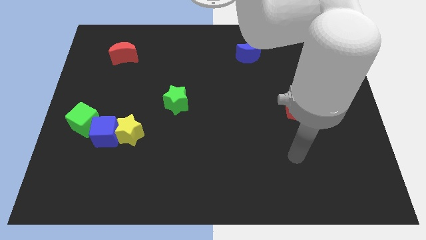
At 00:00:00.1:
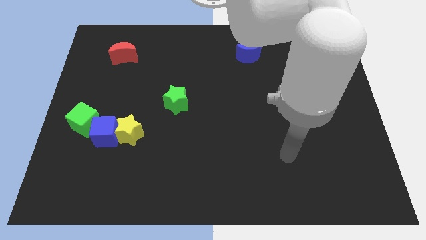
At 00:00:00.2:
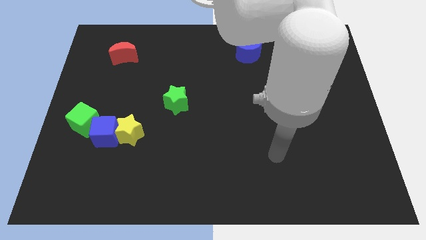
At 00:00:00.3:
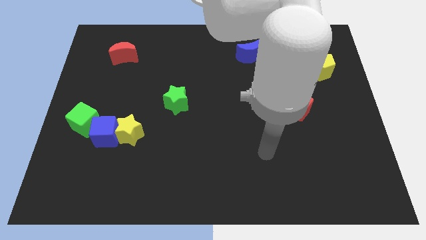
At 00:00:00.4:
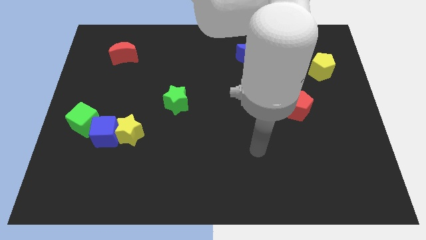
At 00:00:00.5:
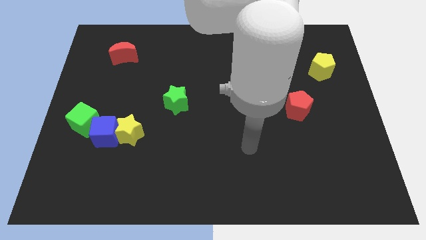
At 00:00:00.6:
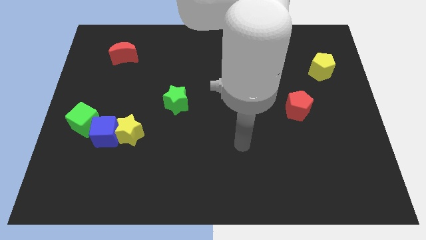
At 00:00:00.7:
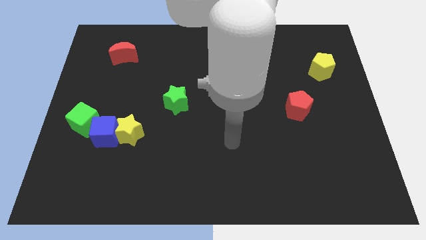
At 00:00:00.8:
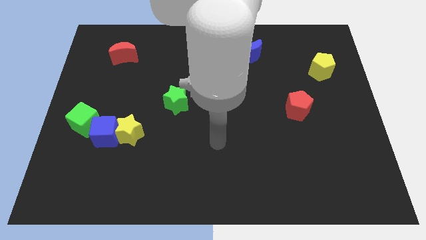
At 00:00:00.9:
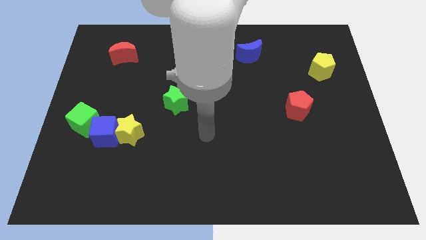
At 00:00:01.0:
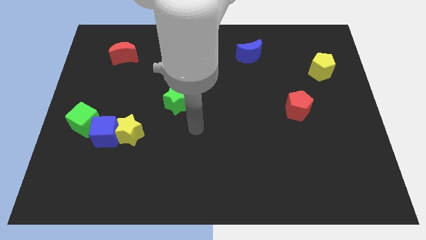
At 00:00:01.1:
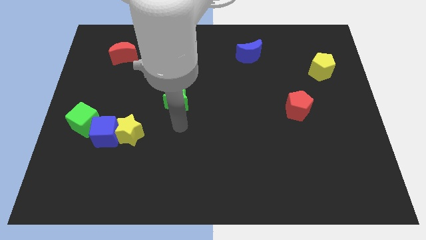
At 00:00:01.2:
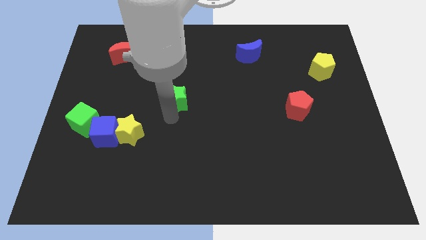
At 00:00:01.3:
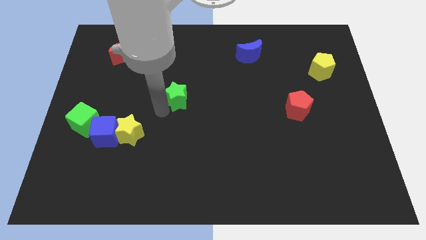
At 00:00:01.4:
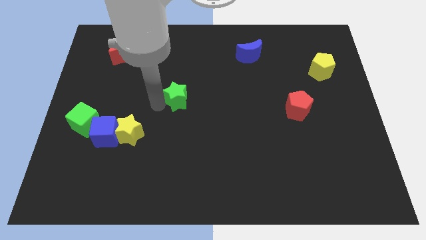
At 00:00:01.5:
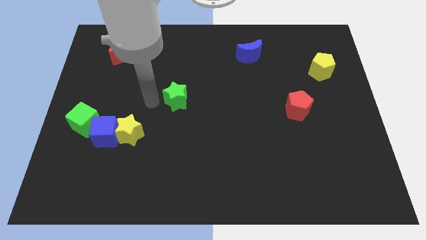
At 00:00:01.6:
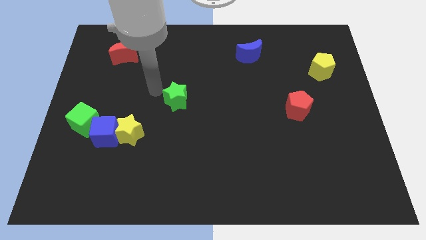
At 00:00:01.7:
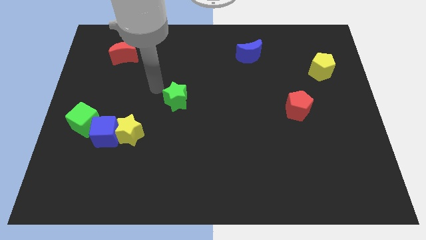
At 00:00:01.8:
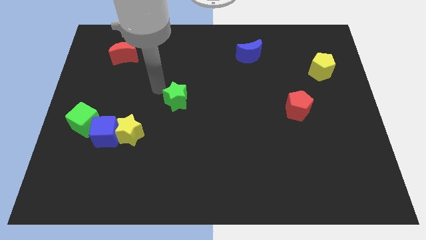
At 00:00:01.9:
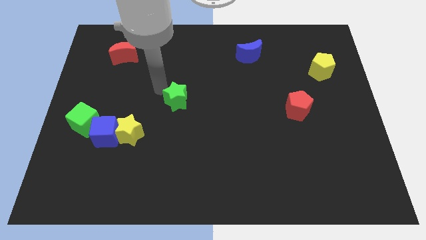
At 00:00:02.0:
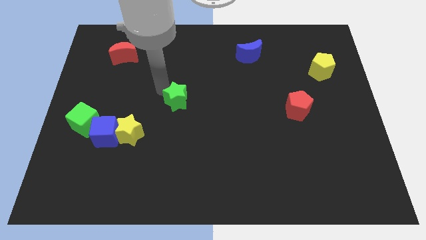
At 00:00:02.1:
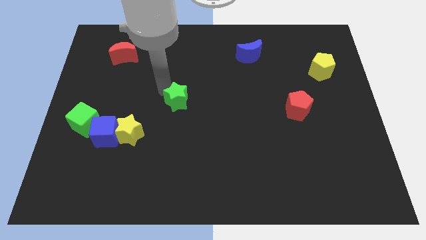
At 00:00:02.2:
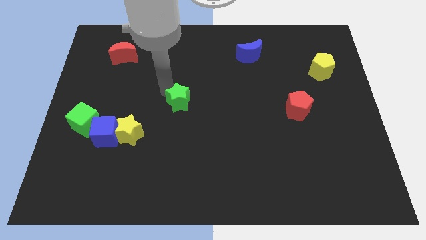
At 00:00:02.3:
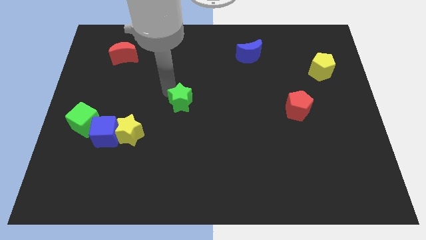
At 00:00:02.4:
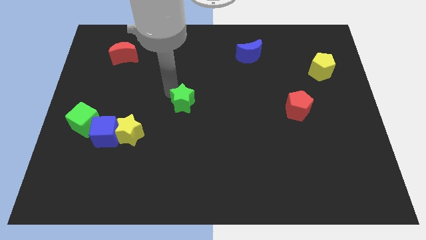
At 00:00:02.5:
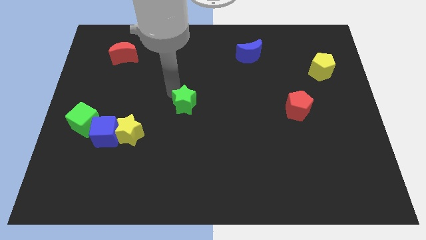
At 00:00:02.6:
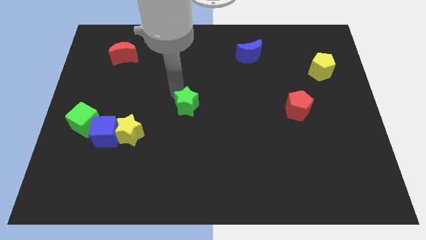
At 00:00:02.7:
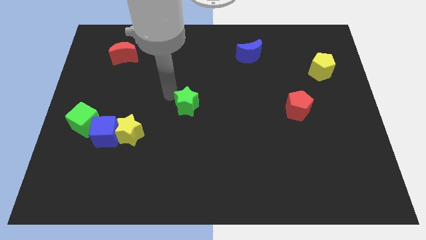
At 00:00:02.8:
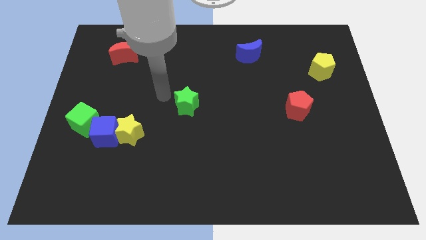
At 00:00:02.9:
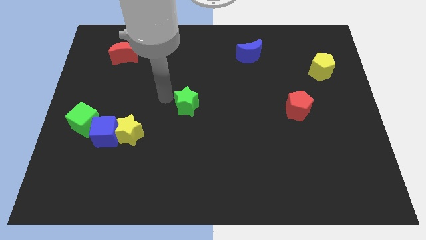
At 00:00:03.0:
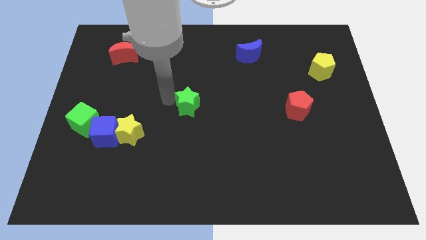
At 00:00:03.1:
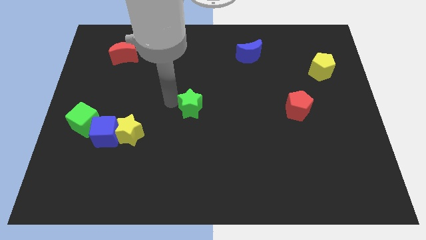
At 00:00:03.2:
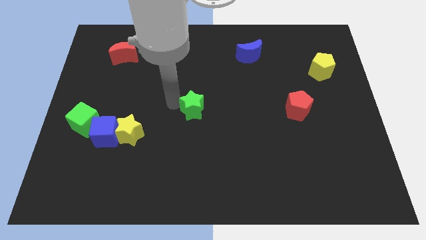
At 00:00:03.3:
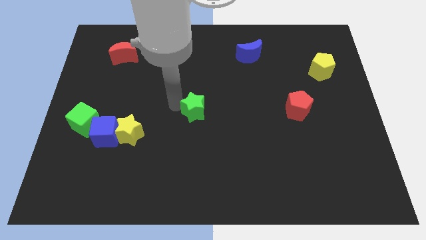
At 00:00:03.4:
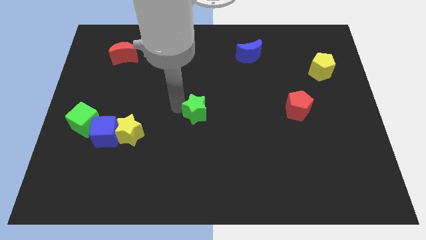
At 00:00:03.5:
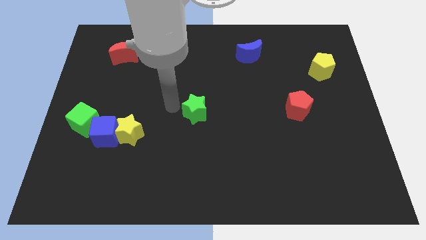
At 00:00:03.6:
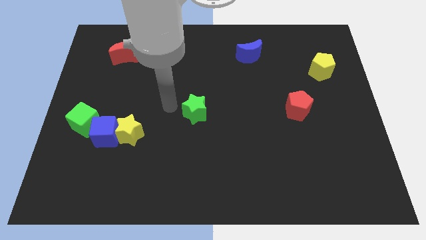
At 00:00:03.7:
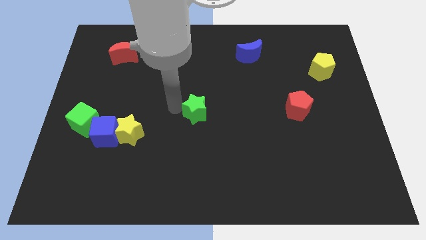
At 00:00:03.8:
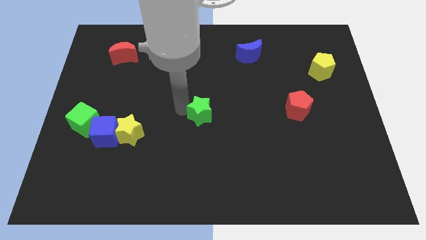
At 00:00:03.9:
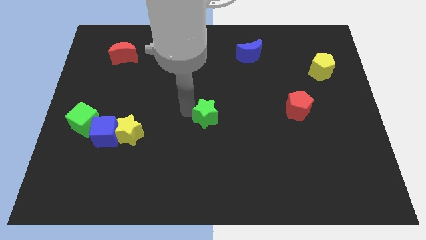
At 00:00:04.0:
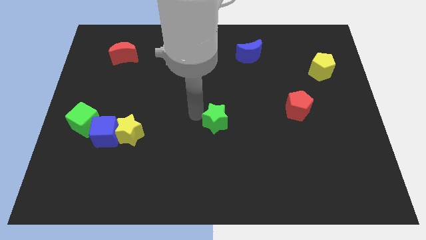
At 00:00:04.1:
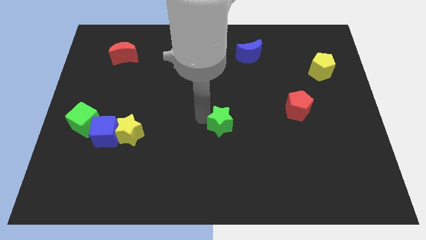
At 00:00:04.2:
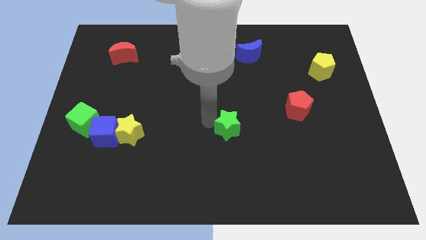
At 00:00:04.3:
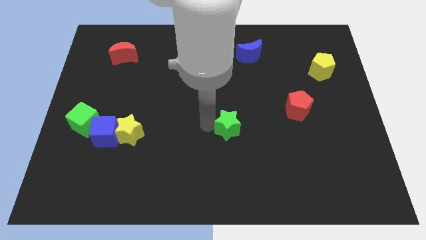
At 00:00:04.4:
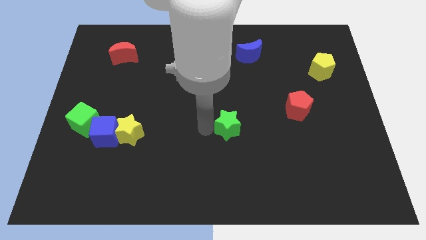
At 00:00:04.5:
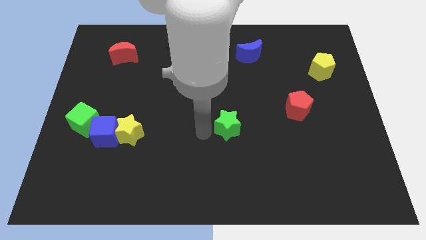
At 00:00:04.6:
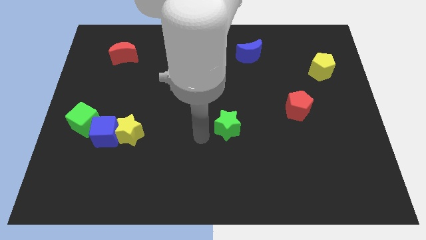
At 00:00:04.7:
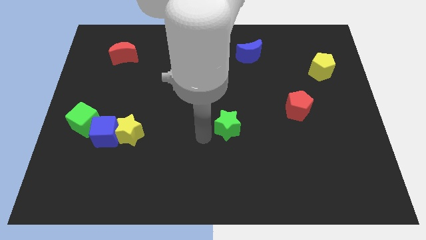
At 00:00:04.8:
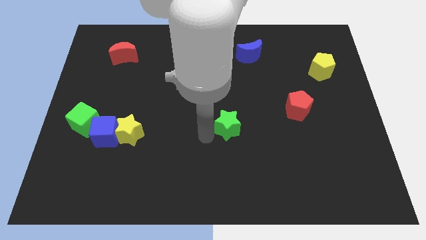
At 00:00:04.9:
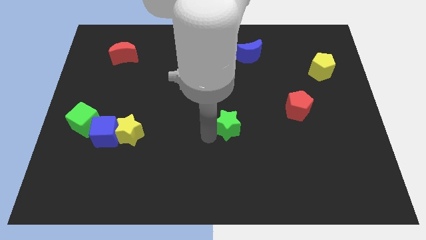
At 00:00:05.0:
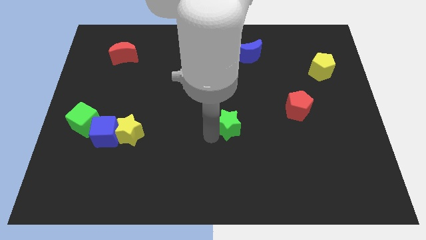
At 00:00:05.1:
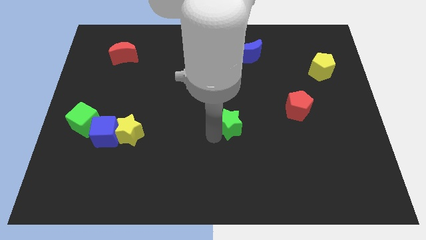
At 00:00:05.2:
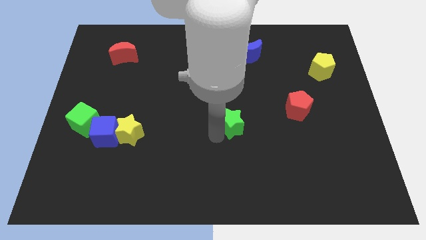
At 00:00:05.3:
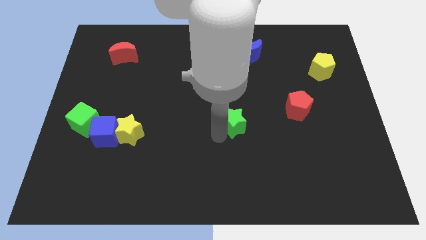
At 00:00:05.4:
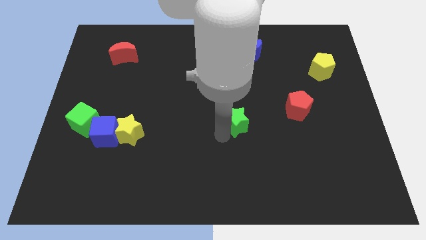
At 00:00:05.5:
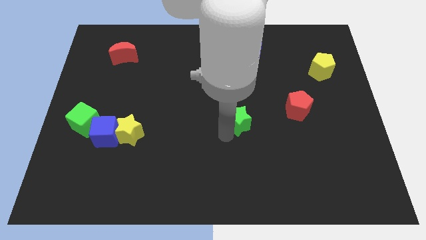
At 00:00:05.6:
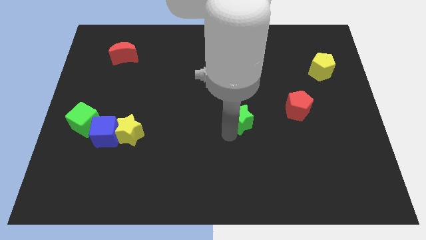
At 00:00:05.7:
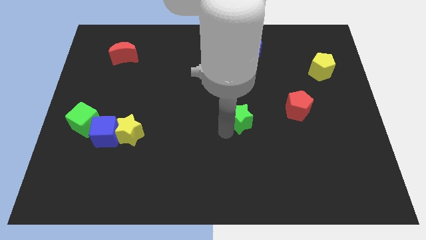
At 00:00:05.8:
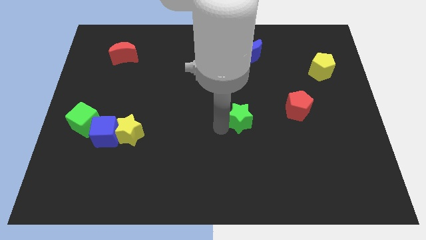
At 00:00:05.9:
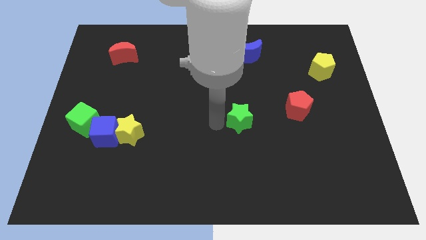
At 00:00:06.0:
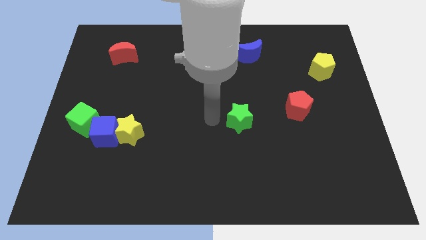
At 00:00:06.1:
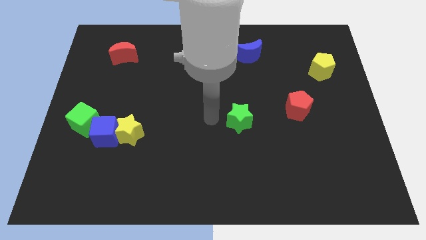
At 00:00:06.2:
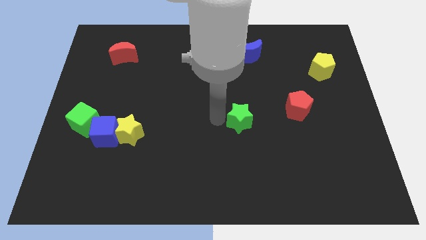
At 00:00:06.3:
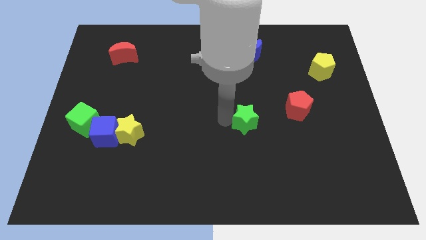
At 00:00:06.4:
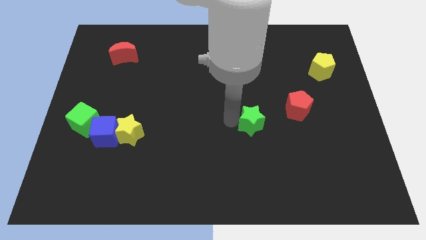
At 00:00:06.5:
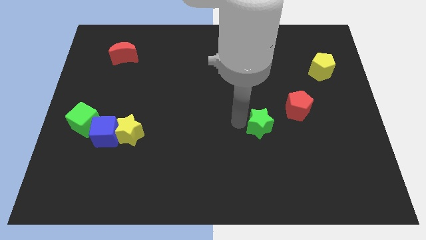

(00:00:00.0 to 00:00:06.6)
move the green star diagonally down and to the left of the red pentagon

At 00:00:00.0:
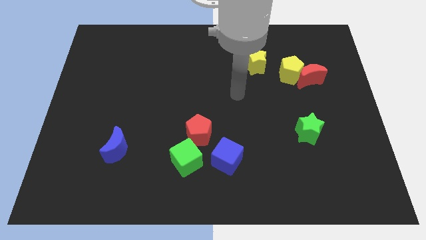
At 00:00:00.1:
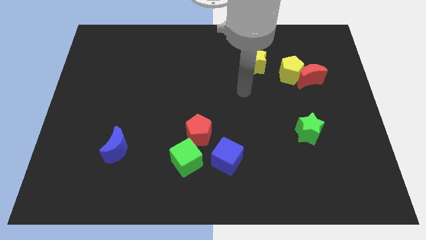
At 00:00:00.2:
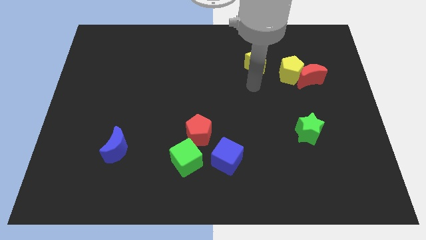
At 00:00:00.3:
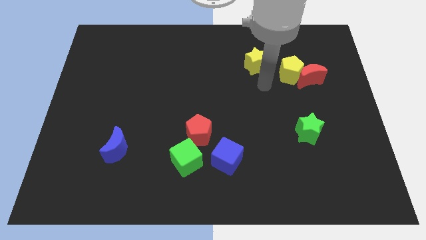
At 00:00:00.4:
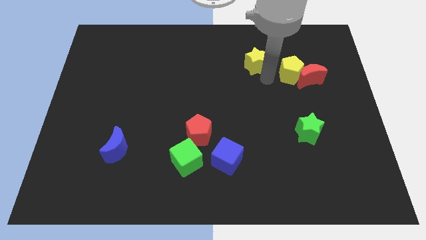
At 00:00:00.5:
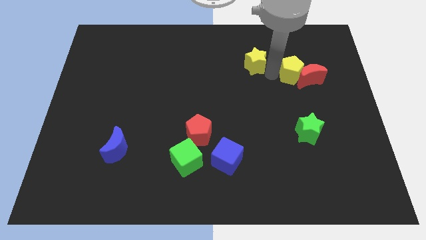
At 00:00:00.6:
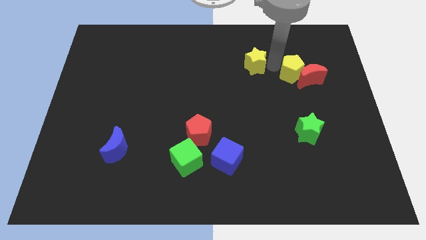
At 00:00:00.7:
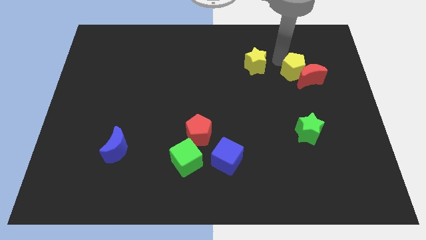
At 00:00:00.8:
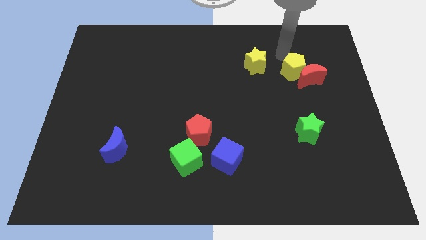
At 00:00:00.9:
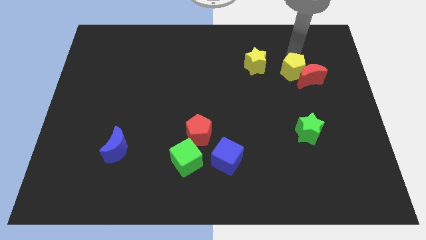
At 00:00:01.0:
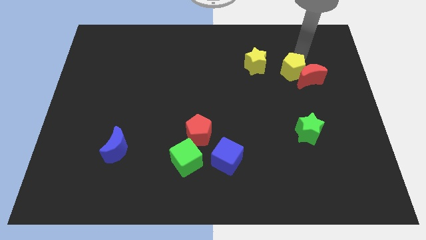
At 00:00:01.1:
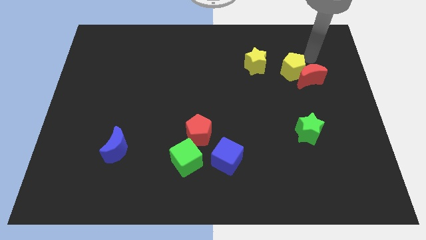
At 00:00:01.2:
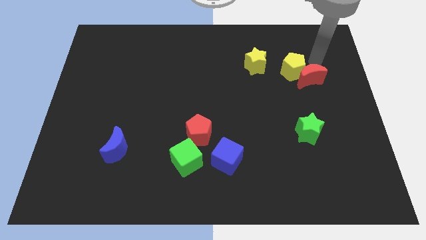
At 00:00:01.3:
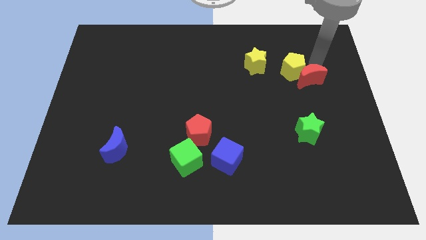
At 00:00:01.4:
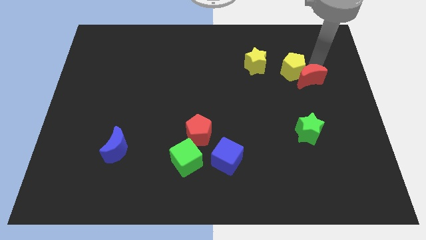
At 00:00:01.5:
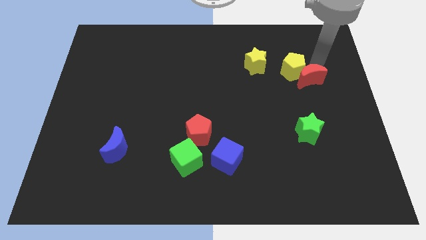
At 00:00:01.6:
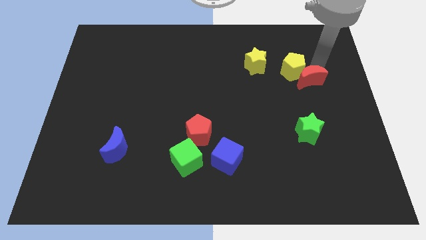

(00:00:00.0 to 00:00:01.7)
slide the red moon to the top side of the green star
